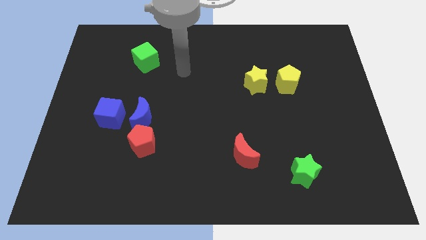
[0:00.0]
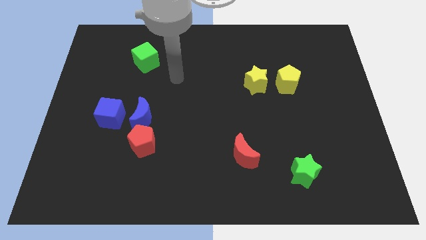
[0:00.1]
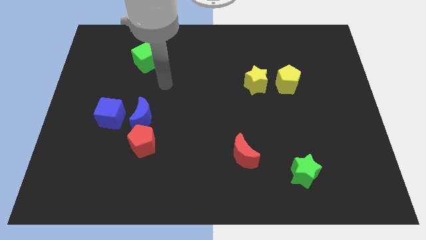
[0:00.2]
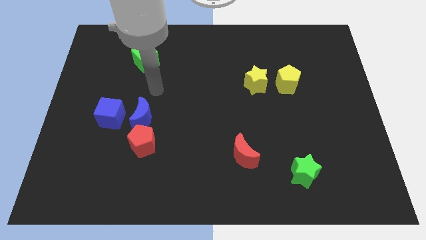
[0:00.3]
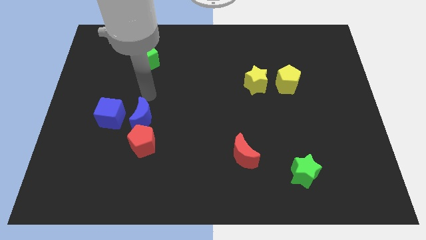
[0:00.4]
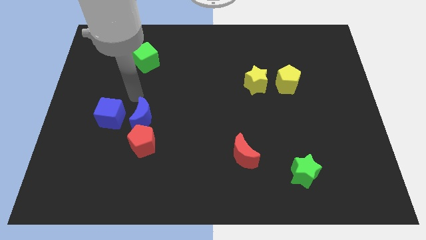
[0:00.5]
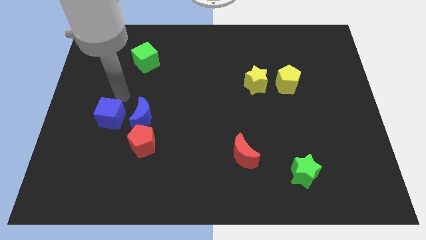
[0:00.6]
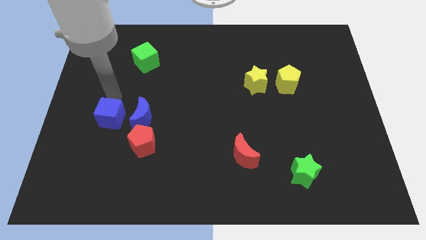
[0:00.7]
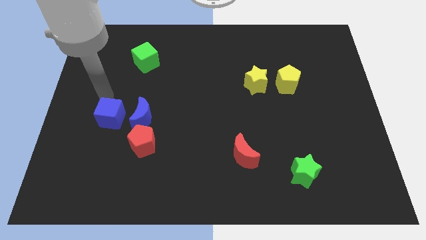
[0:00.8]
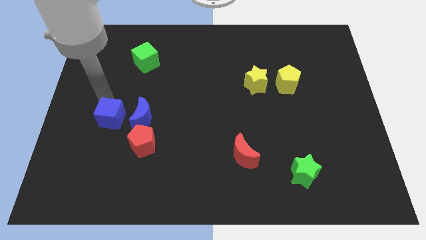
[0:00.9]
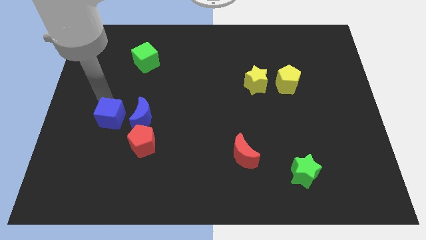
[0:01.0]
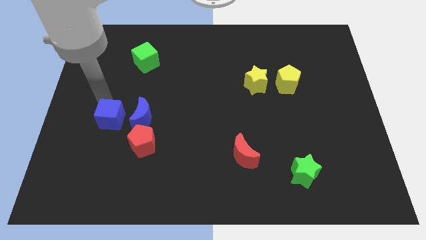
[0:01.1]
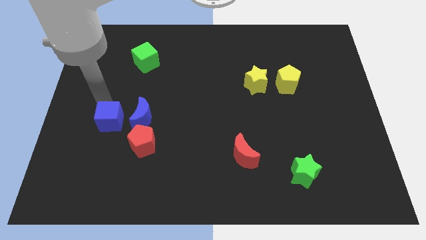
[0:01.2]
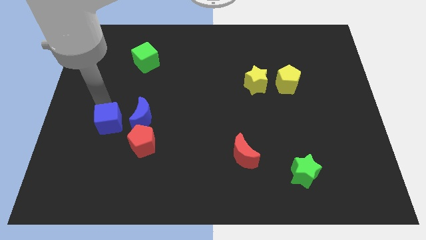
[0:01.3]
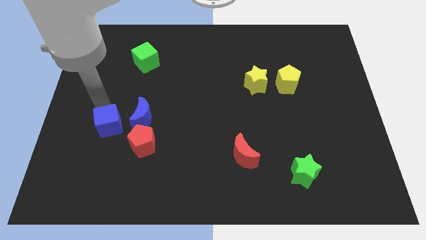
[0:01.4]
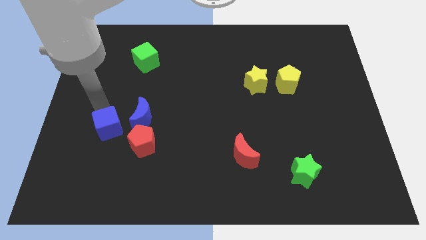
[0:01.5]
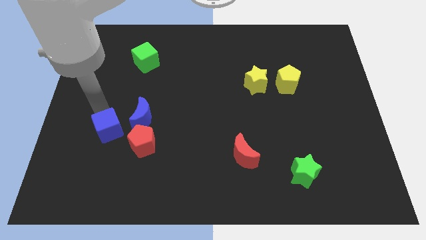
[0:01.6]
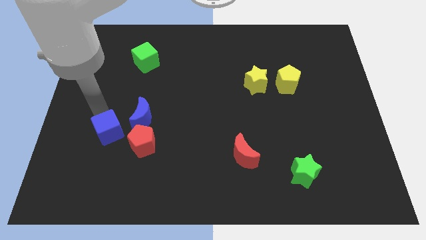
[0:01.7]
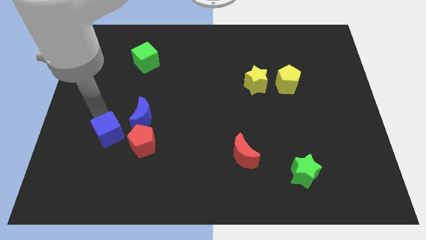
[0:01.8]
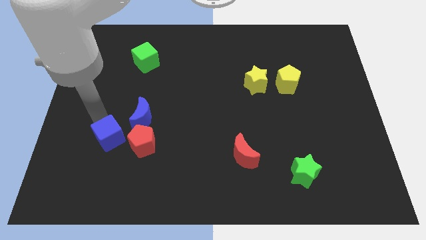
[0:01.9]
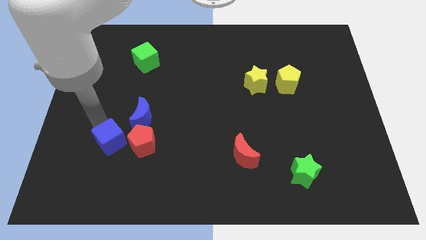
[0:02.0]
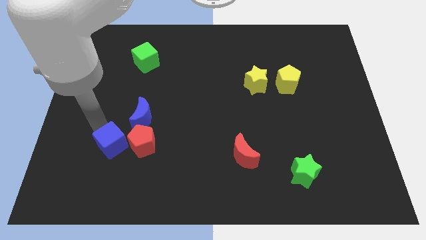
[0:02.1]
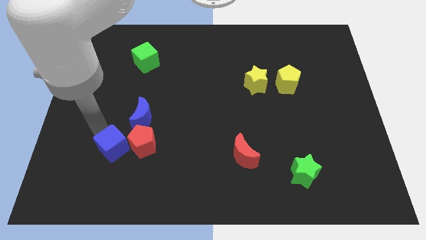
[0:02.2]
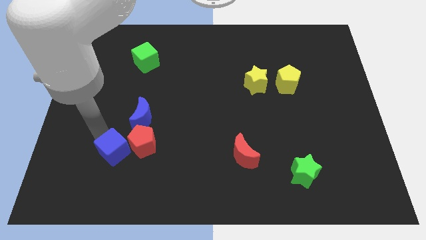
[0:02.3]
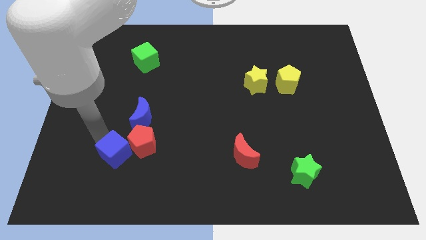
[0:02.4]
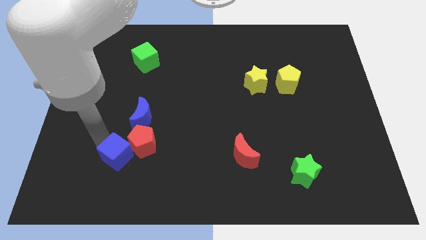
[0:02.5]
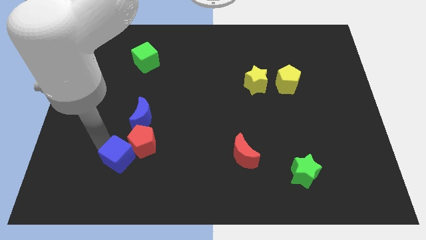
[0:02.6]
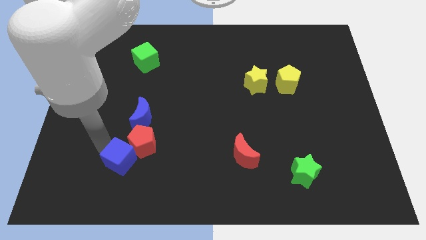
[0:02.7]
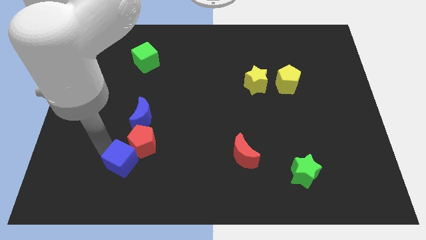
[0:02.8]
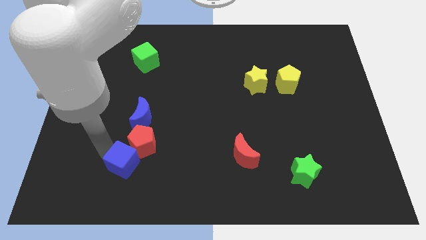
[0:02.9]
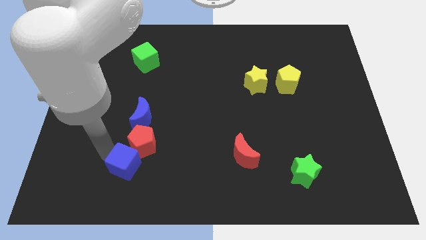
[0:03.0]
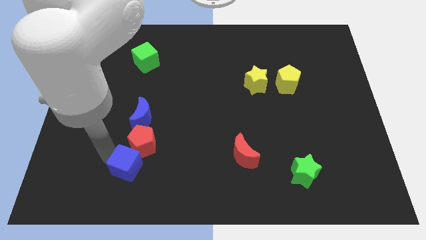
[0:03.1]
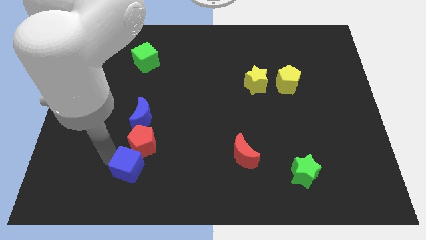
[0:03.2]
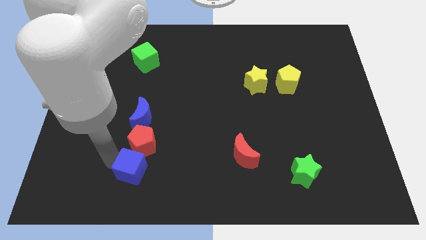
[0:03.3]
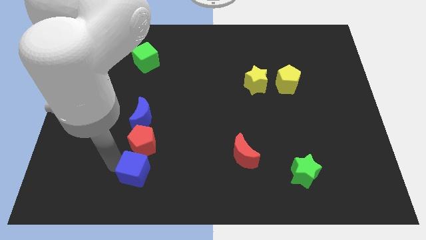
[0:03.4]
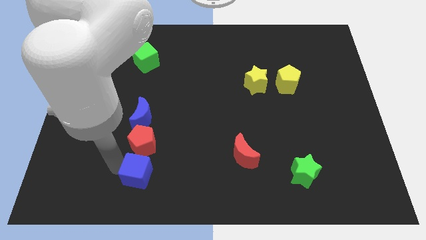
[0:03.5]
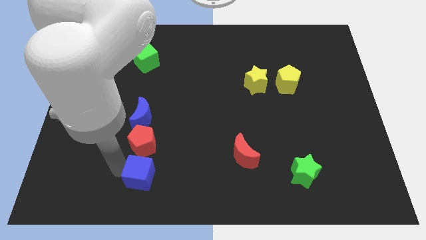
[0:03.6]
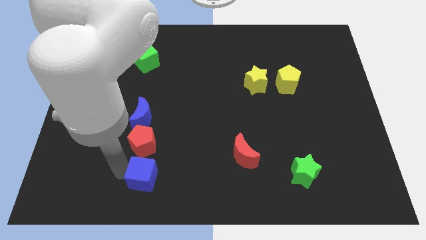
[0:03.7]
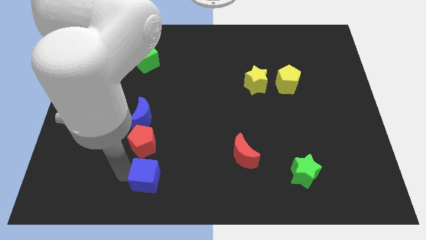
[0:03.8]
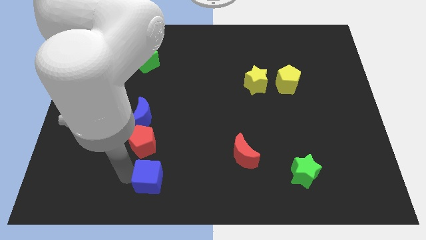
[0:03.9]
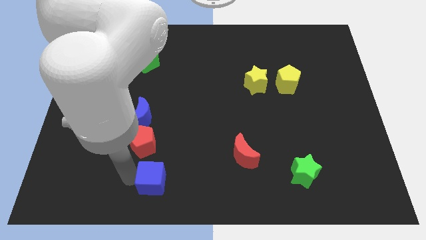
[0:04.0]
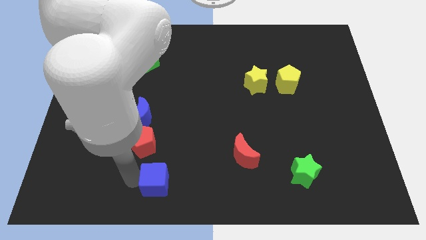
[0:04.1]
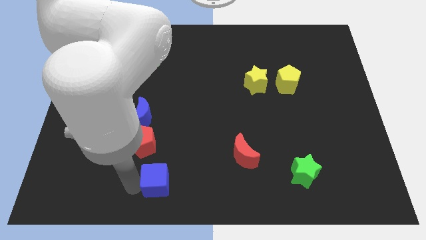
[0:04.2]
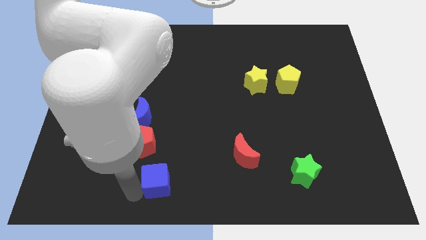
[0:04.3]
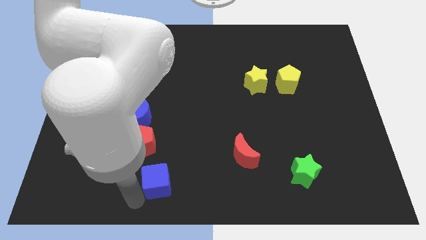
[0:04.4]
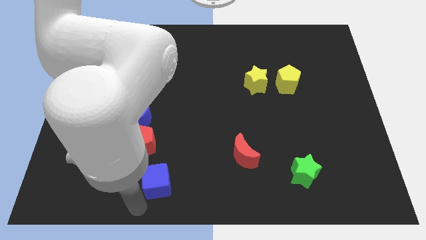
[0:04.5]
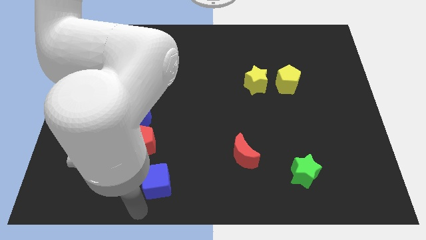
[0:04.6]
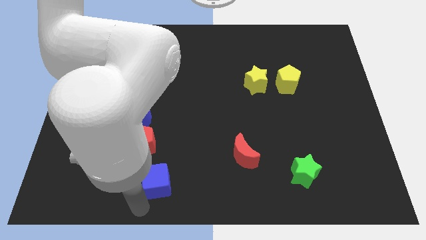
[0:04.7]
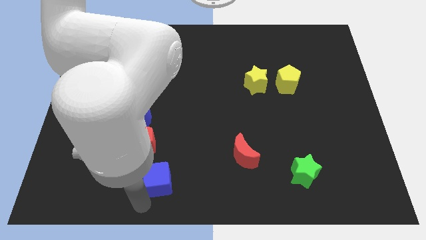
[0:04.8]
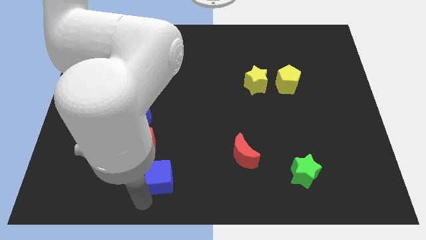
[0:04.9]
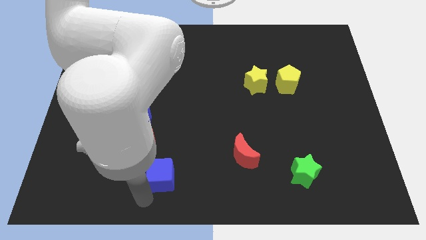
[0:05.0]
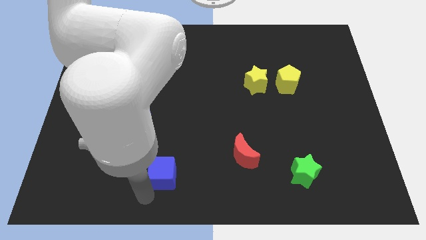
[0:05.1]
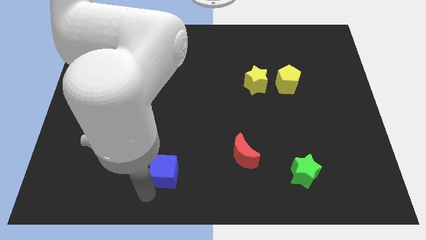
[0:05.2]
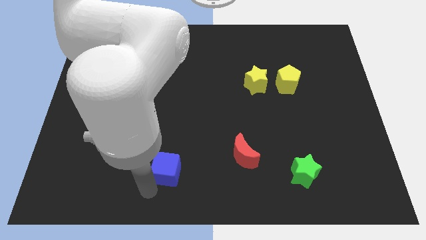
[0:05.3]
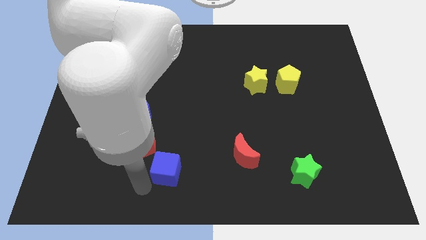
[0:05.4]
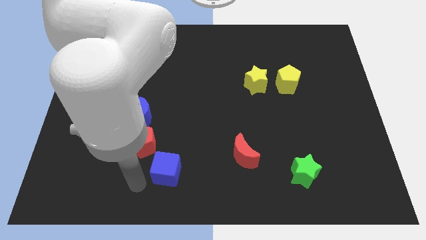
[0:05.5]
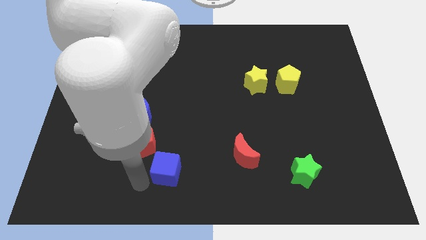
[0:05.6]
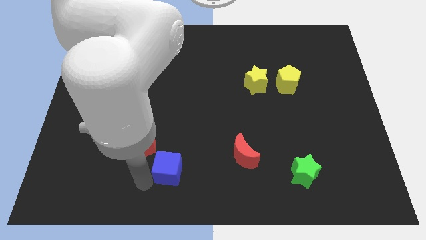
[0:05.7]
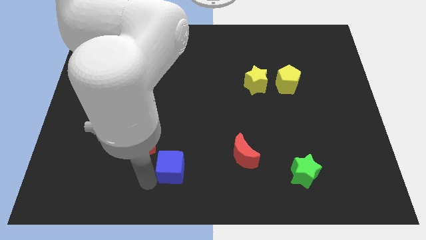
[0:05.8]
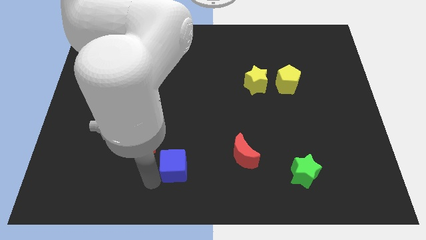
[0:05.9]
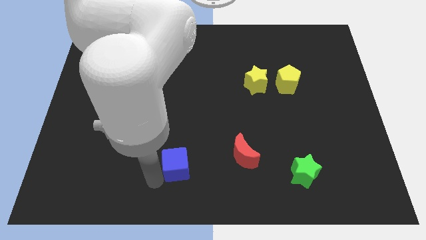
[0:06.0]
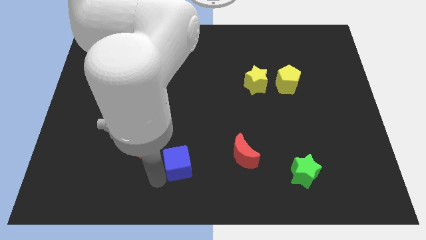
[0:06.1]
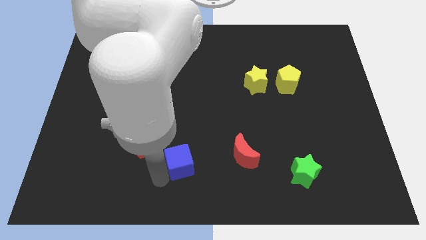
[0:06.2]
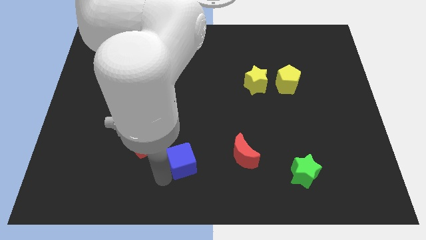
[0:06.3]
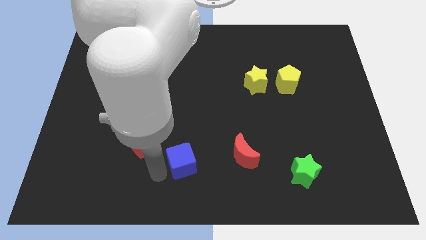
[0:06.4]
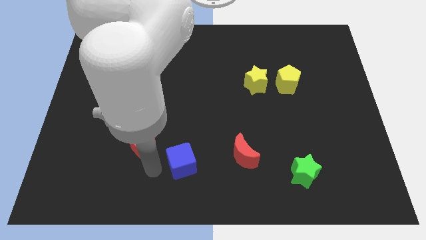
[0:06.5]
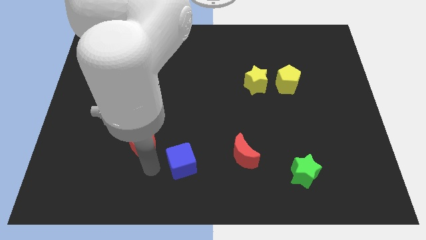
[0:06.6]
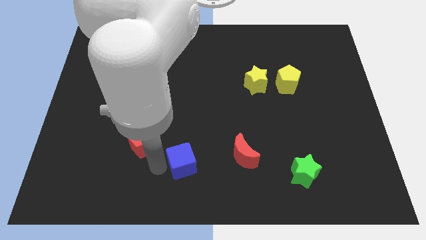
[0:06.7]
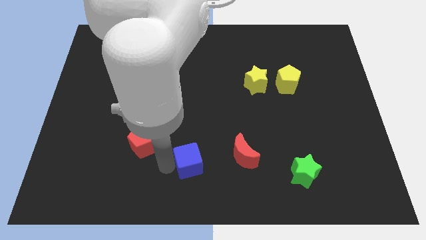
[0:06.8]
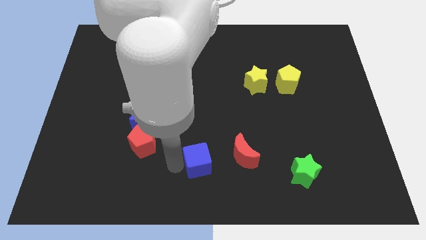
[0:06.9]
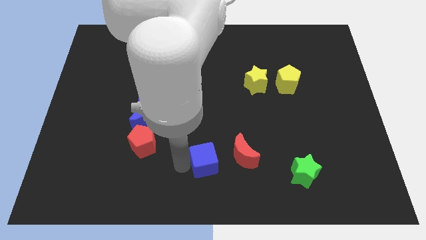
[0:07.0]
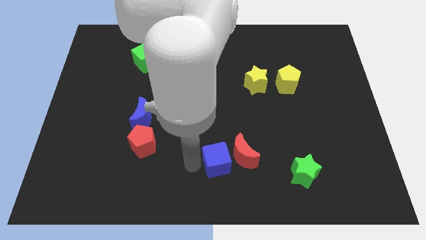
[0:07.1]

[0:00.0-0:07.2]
push the blue cube to the red moon

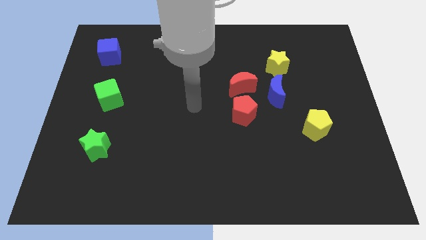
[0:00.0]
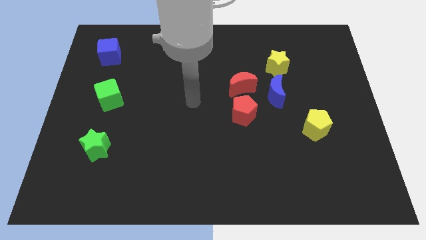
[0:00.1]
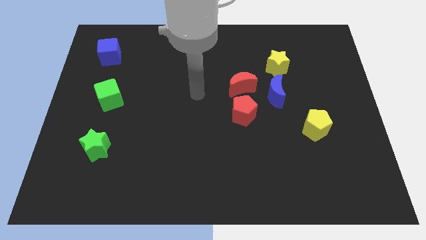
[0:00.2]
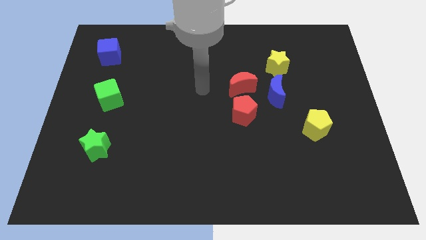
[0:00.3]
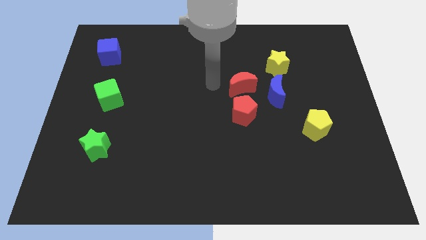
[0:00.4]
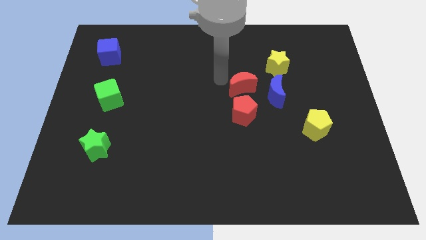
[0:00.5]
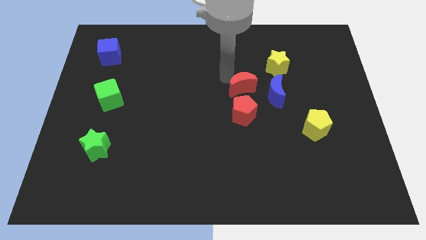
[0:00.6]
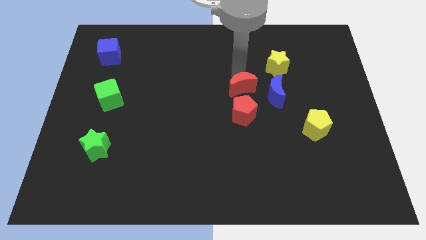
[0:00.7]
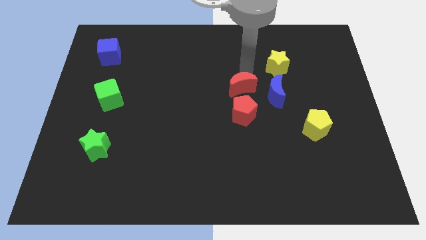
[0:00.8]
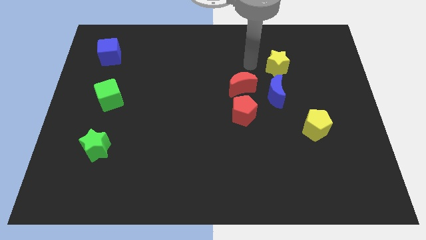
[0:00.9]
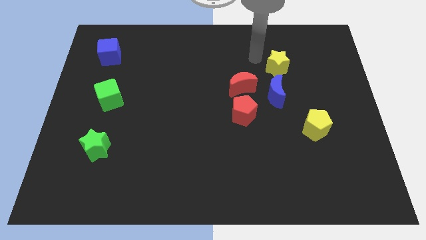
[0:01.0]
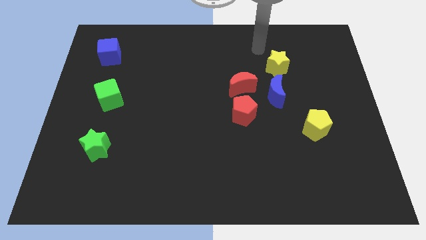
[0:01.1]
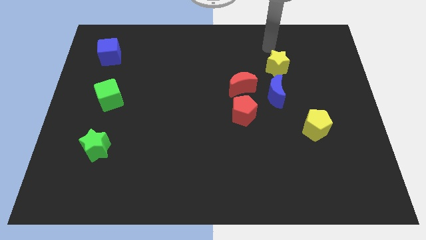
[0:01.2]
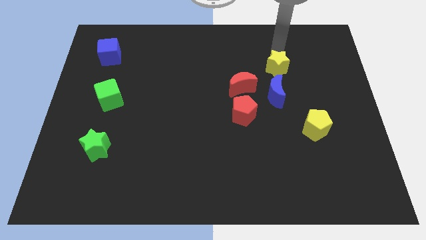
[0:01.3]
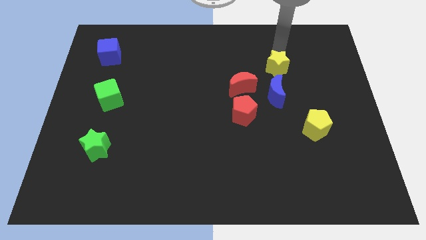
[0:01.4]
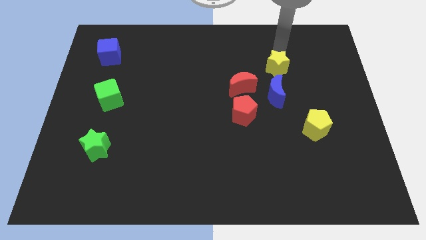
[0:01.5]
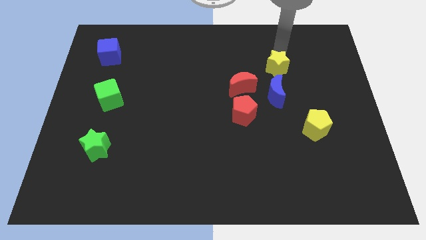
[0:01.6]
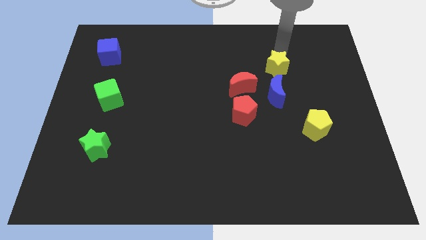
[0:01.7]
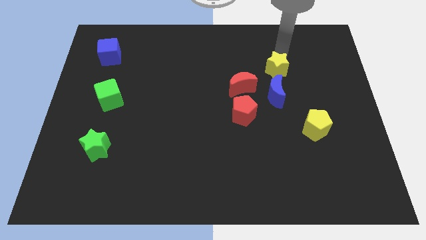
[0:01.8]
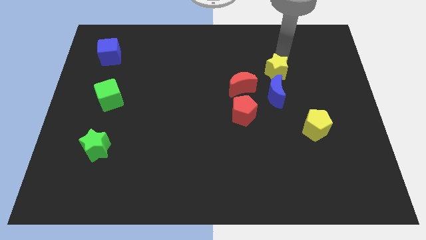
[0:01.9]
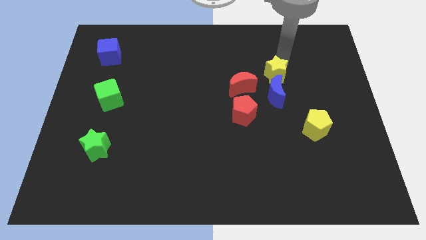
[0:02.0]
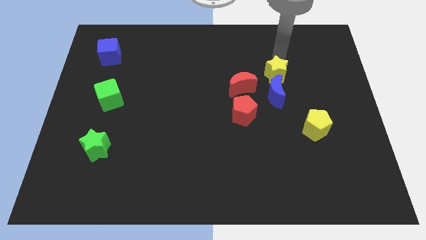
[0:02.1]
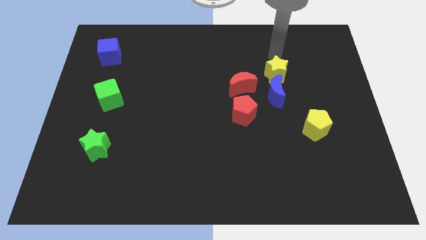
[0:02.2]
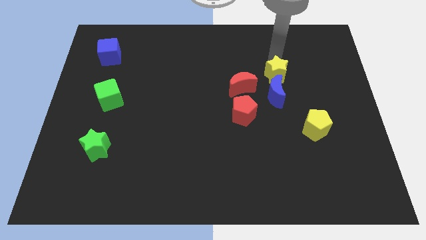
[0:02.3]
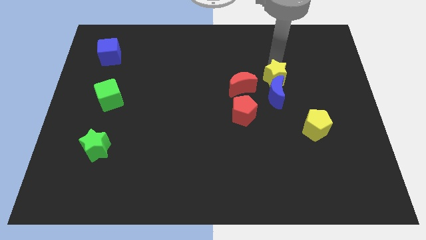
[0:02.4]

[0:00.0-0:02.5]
move the yellow star towards the blue moon
